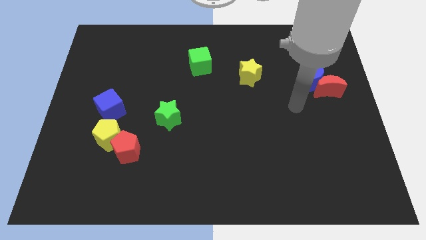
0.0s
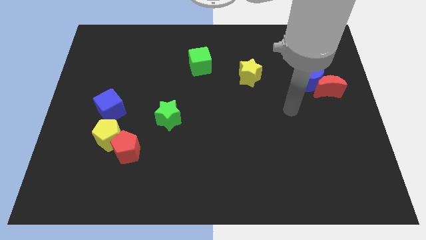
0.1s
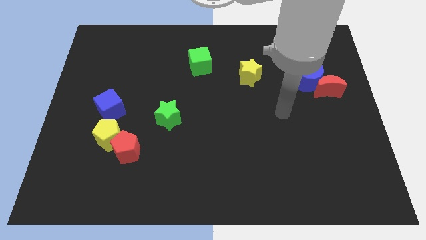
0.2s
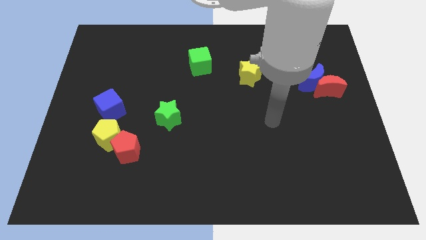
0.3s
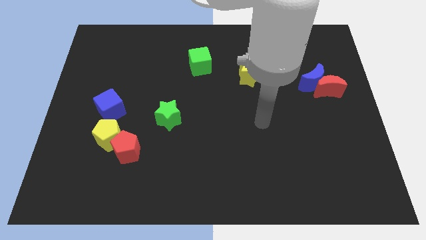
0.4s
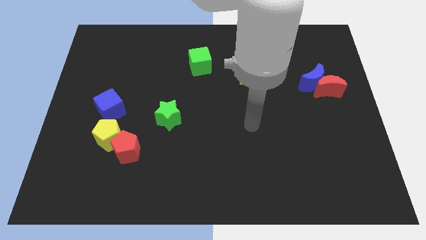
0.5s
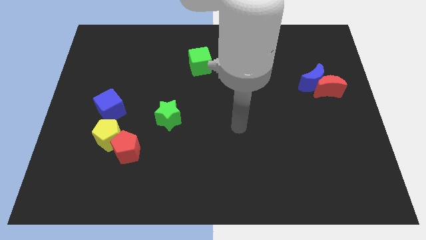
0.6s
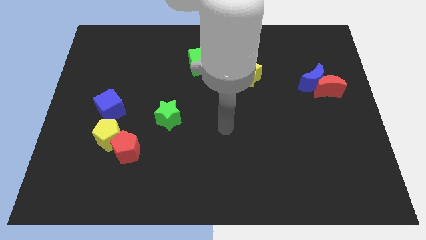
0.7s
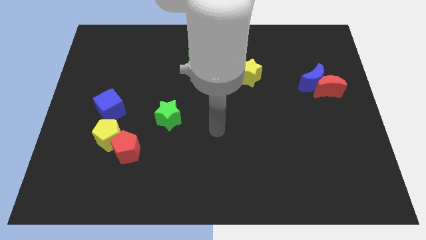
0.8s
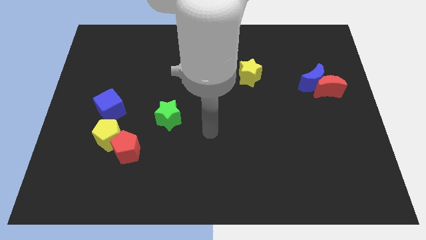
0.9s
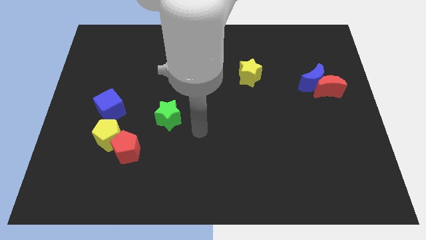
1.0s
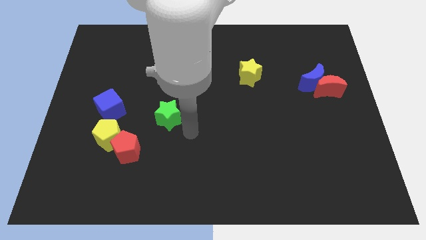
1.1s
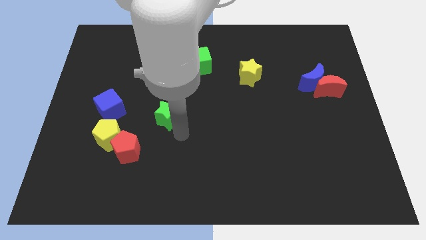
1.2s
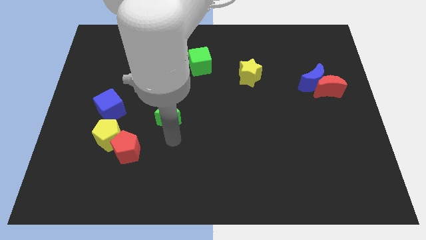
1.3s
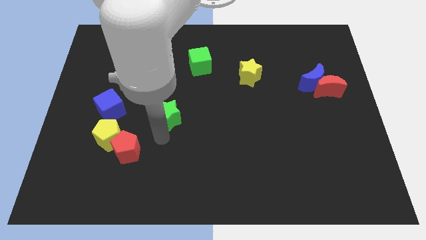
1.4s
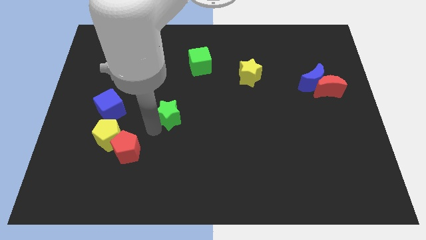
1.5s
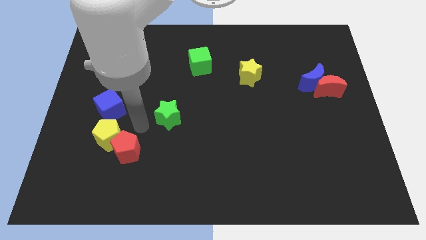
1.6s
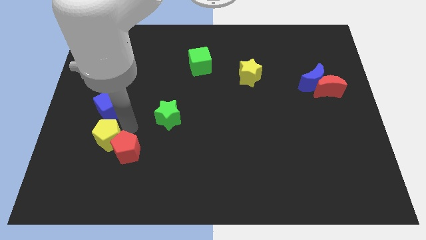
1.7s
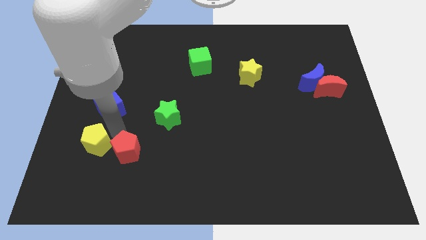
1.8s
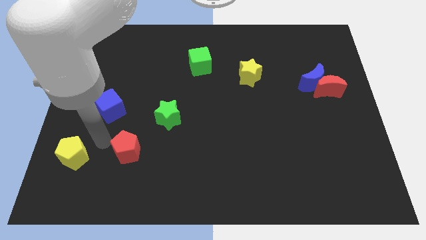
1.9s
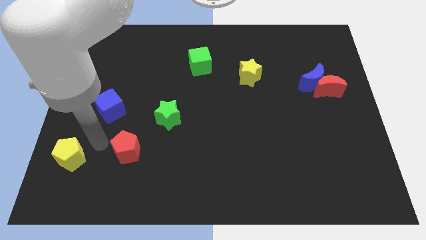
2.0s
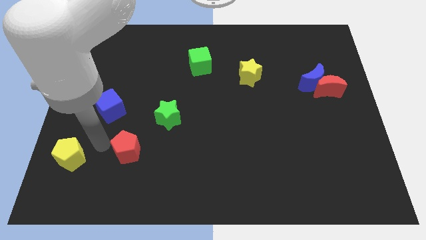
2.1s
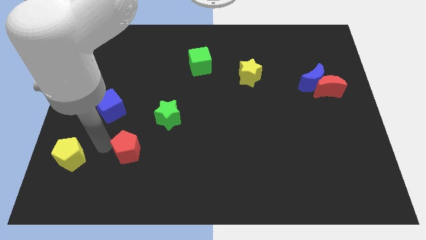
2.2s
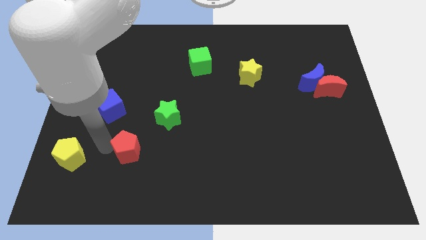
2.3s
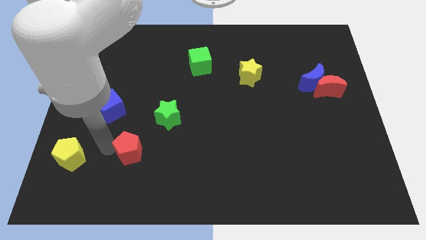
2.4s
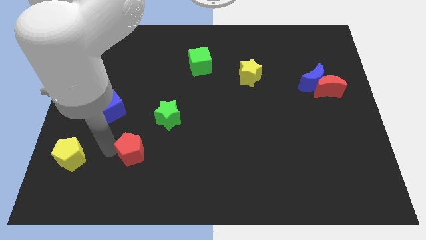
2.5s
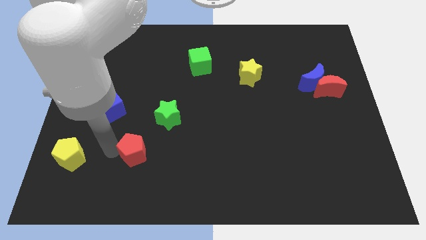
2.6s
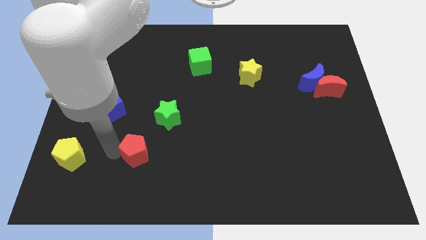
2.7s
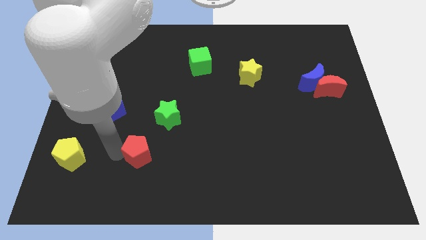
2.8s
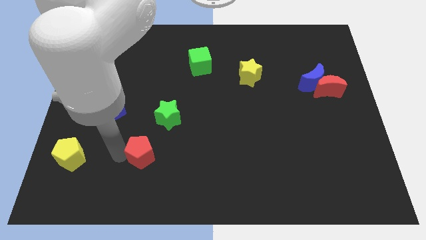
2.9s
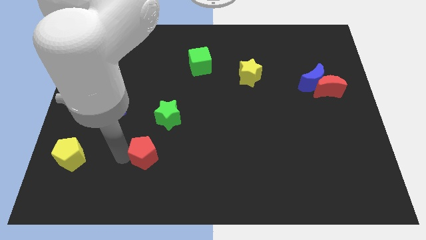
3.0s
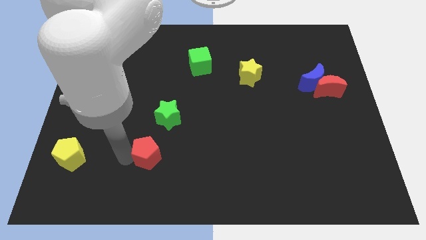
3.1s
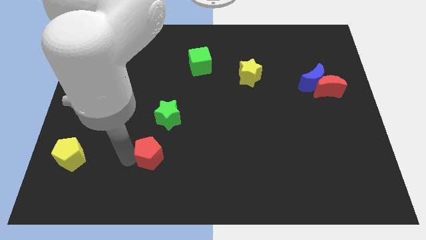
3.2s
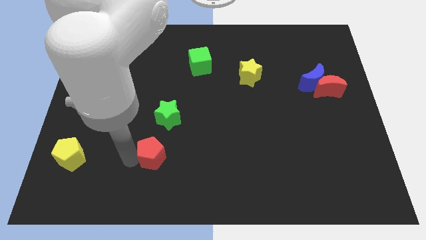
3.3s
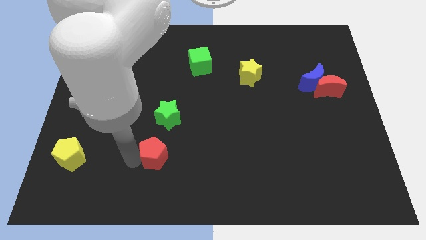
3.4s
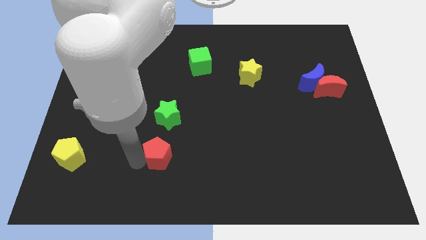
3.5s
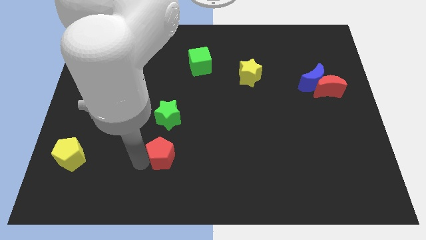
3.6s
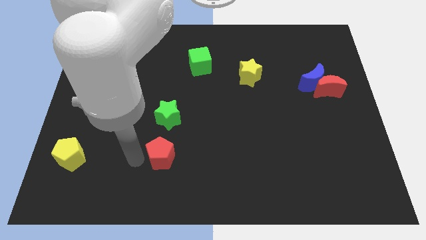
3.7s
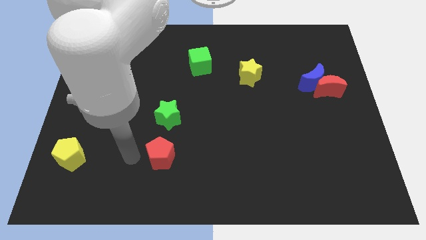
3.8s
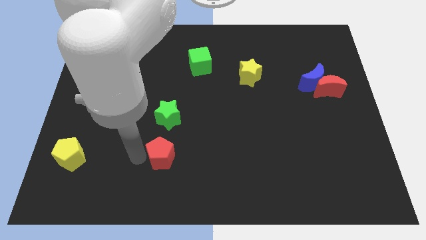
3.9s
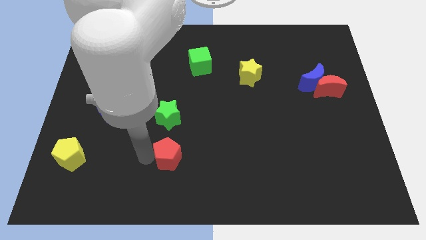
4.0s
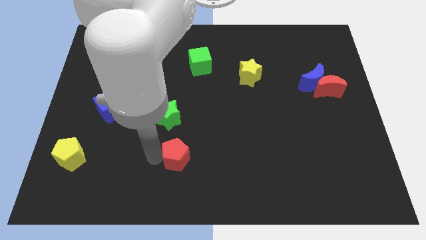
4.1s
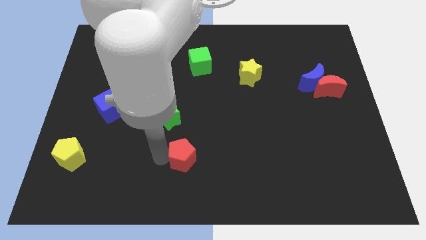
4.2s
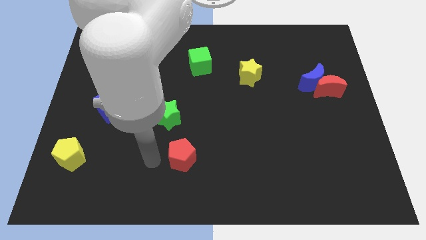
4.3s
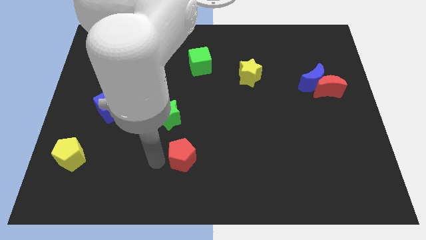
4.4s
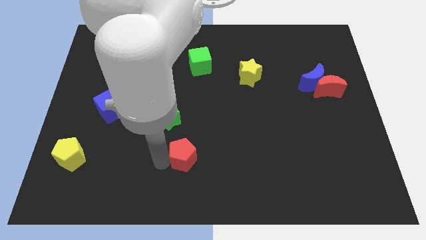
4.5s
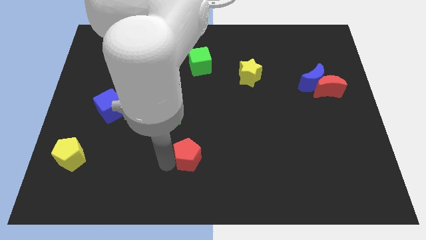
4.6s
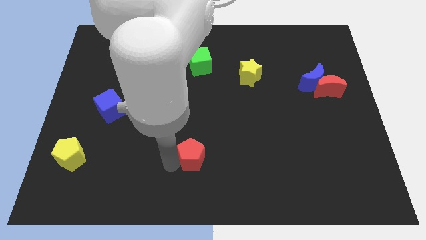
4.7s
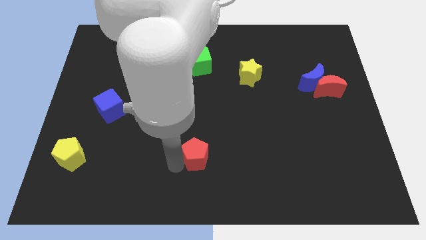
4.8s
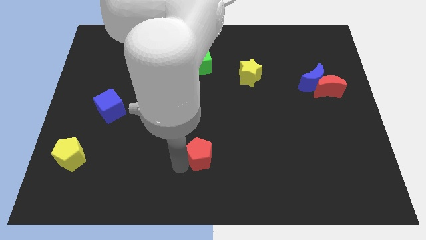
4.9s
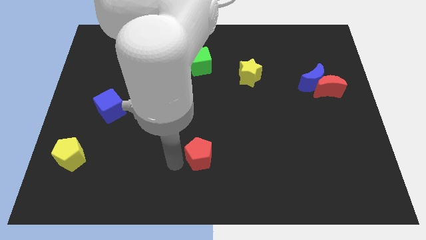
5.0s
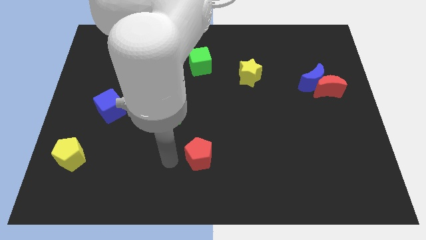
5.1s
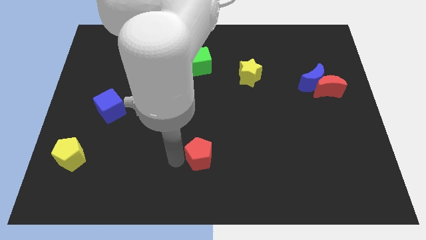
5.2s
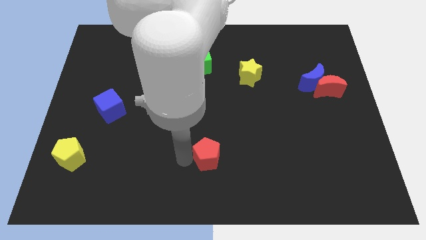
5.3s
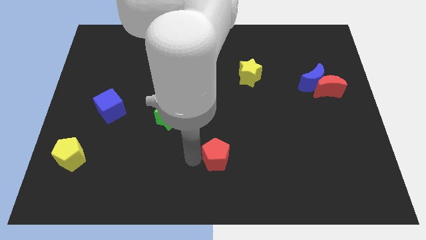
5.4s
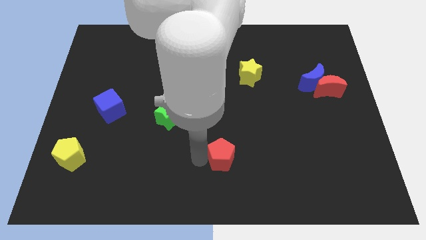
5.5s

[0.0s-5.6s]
slide the red pentagon right

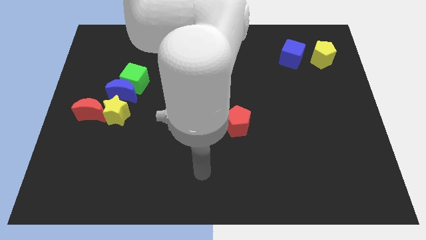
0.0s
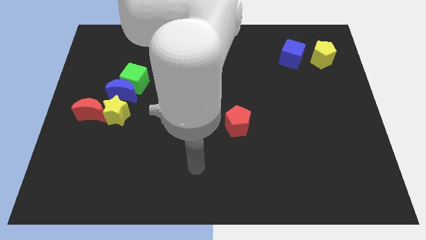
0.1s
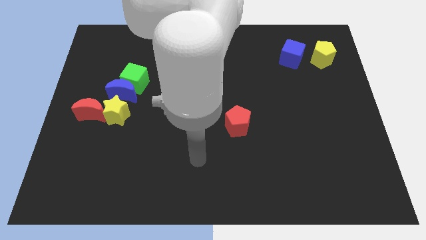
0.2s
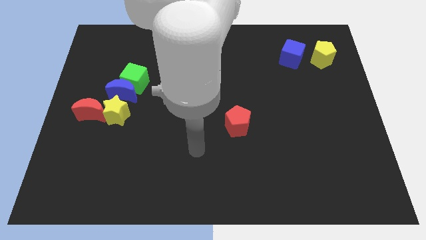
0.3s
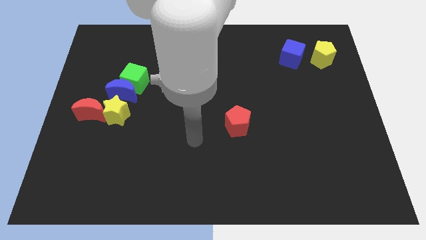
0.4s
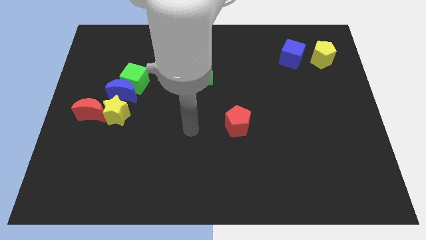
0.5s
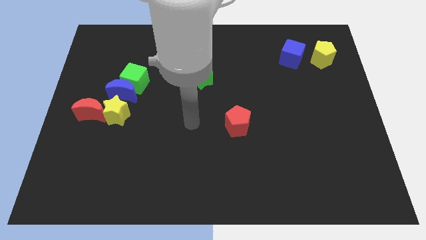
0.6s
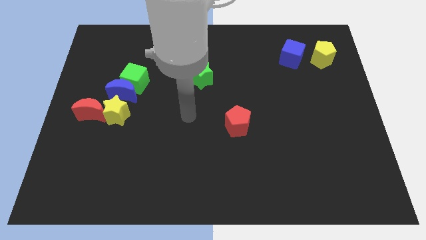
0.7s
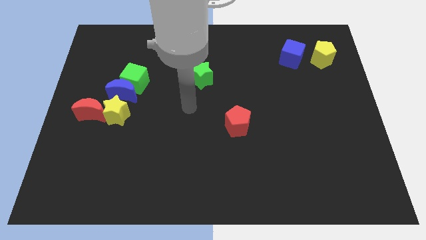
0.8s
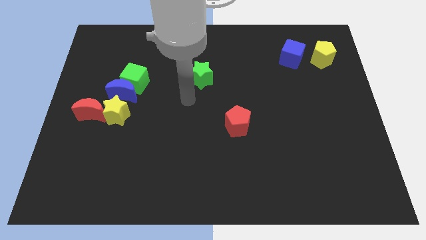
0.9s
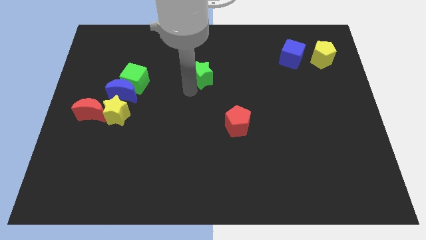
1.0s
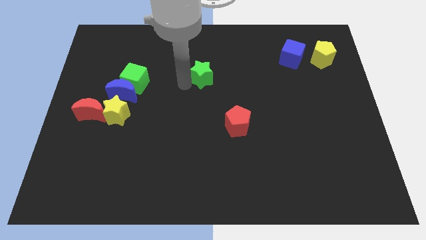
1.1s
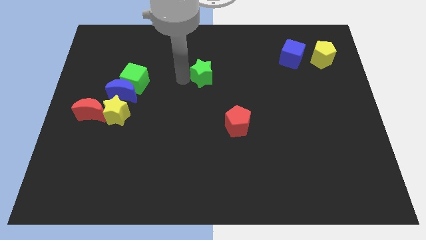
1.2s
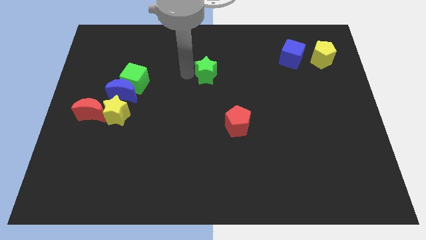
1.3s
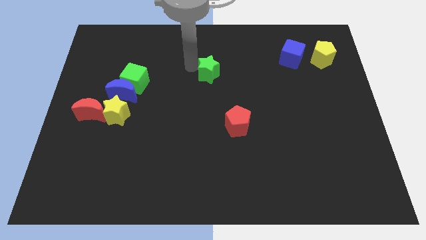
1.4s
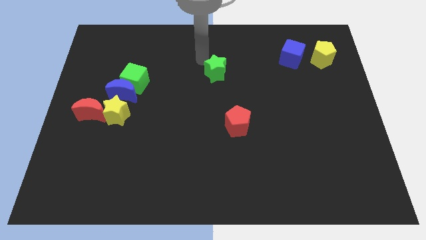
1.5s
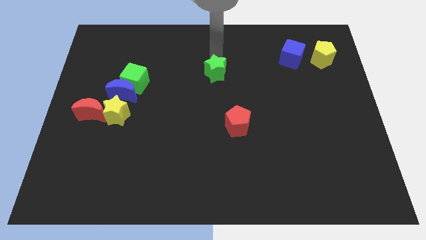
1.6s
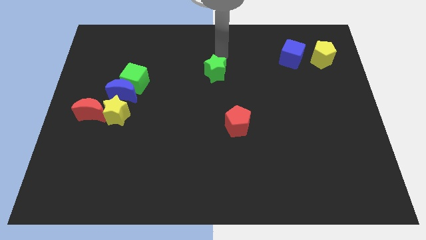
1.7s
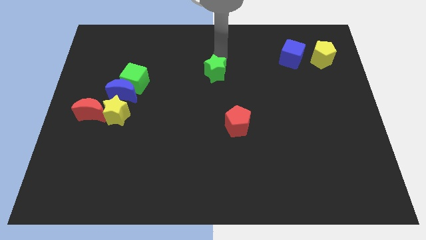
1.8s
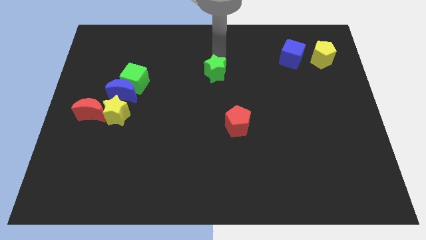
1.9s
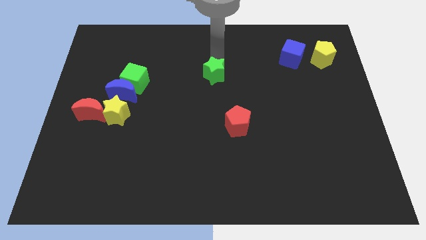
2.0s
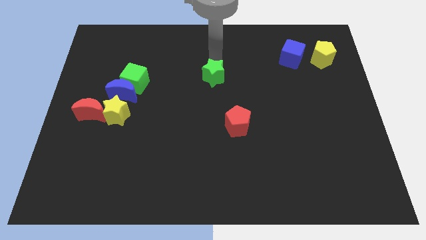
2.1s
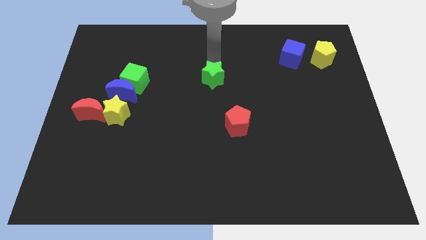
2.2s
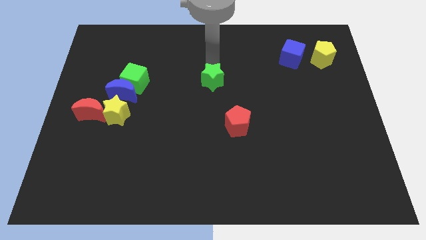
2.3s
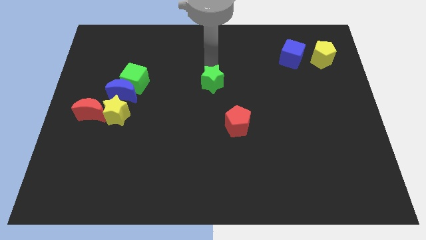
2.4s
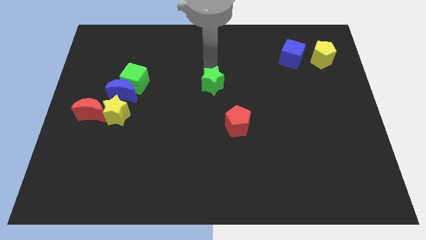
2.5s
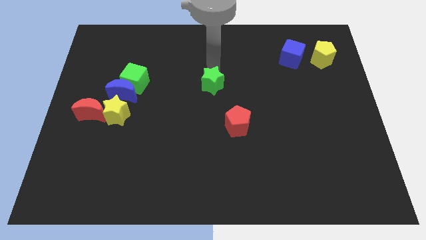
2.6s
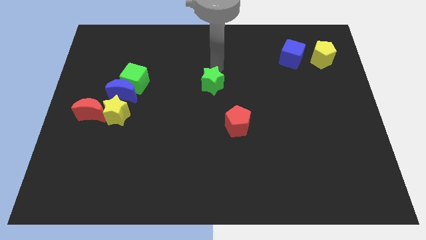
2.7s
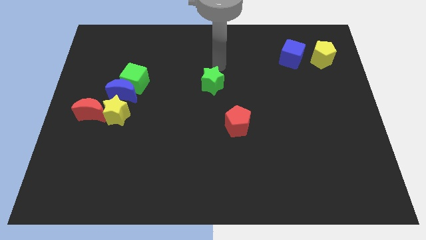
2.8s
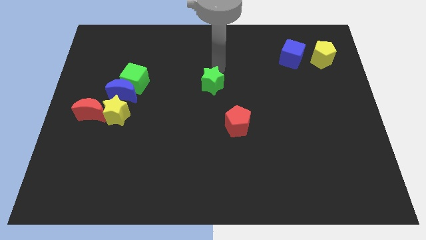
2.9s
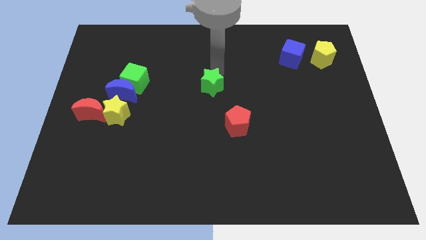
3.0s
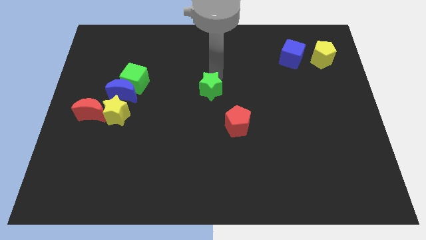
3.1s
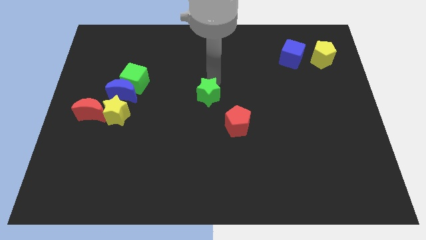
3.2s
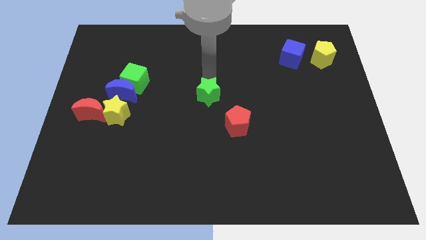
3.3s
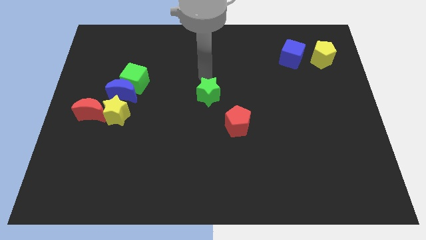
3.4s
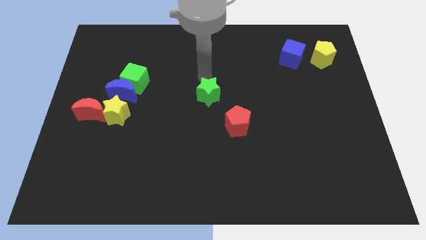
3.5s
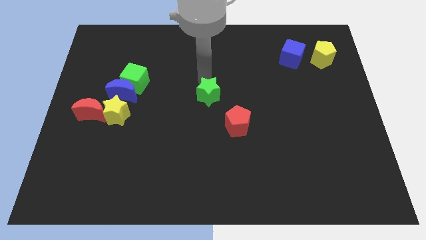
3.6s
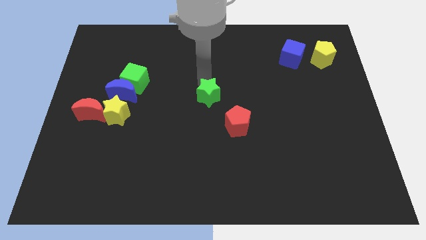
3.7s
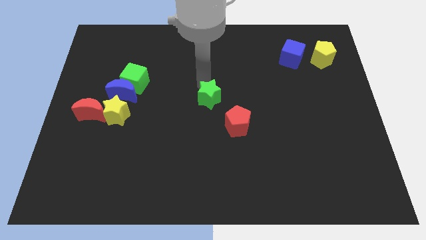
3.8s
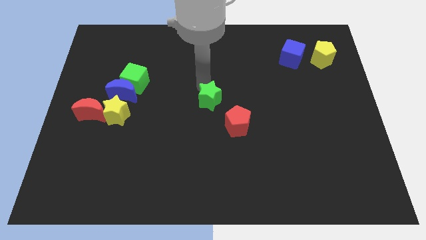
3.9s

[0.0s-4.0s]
push the green star down a bit
